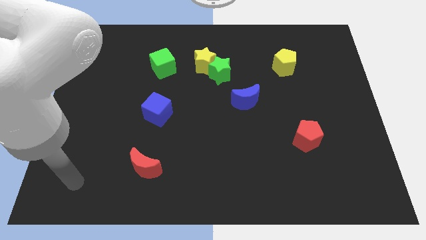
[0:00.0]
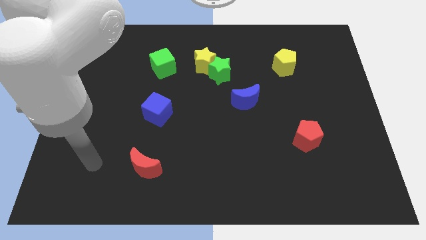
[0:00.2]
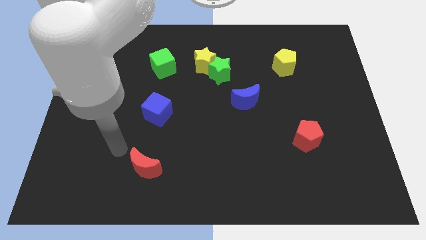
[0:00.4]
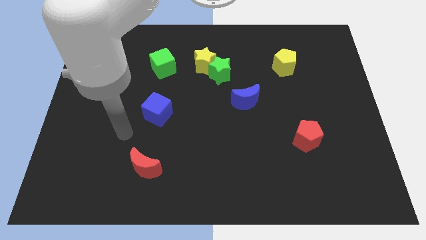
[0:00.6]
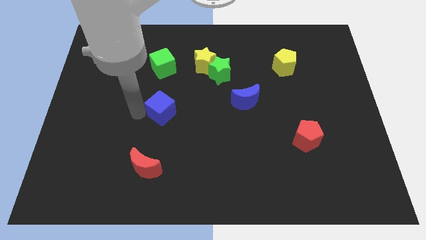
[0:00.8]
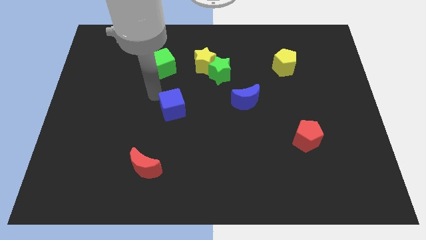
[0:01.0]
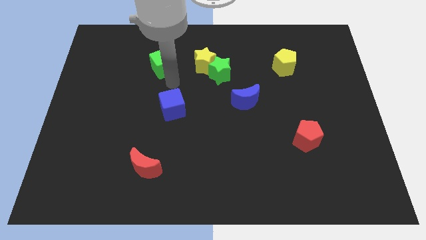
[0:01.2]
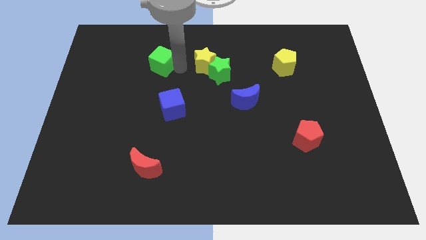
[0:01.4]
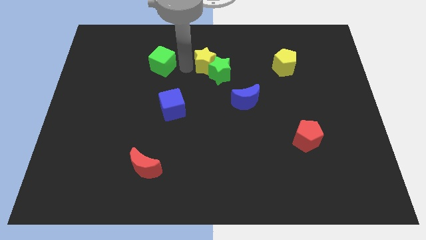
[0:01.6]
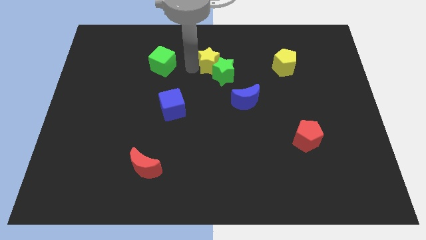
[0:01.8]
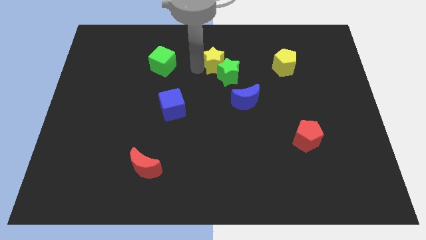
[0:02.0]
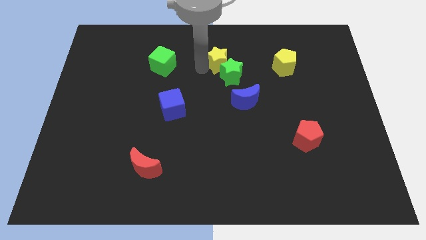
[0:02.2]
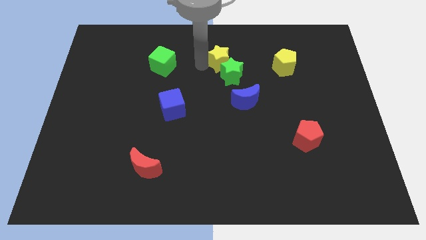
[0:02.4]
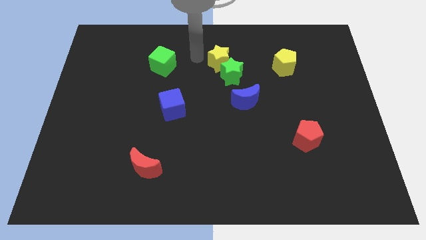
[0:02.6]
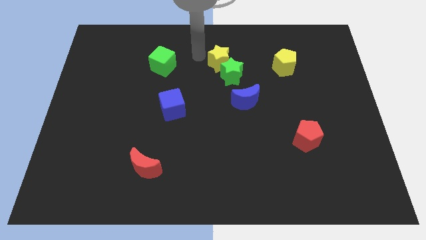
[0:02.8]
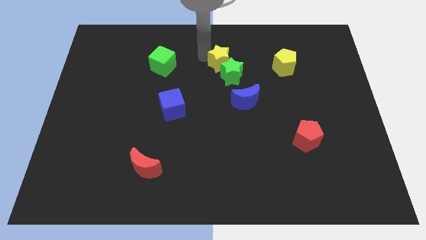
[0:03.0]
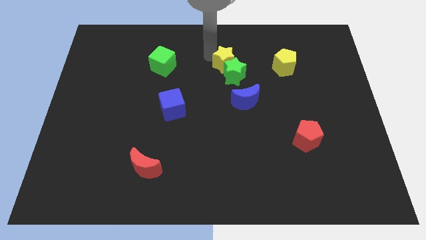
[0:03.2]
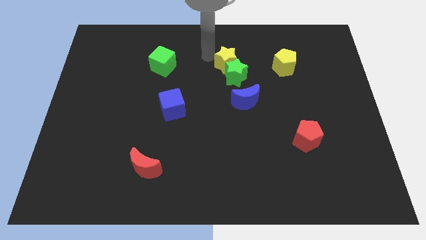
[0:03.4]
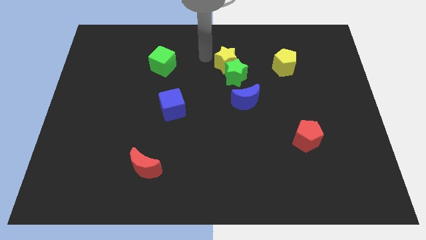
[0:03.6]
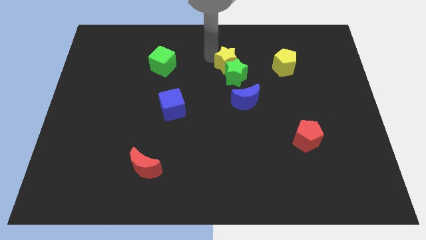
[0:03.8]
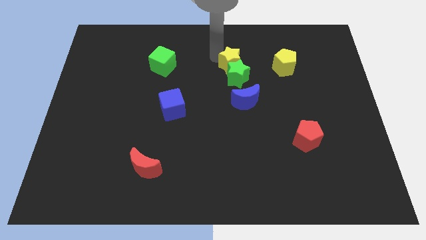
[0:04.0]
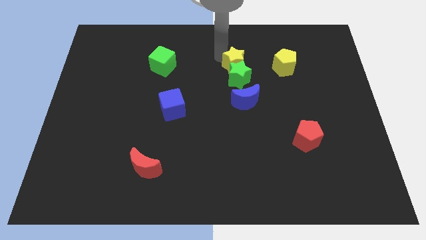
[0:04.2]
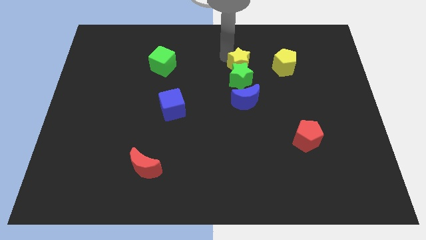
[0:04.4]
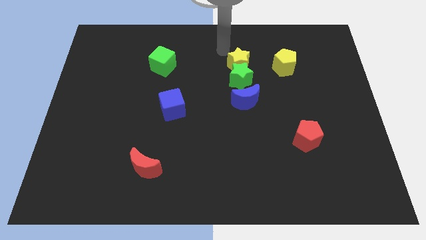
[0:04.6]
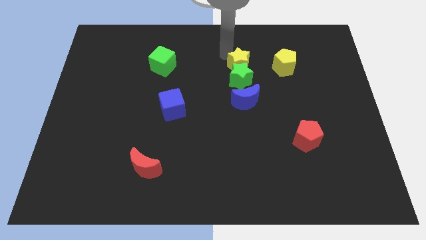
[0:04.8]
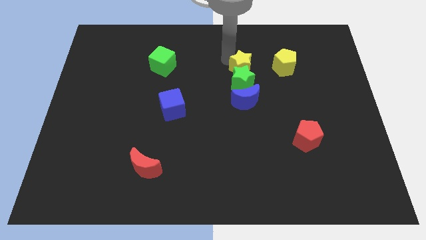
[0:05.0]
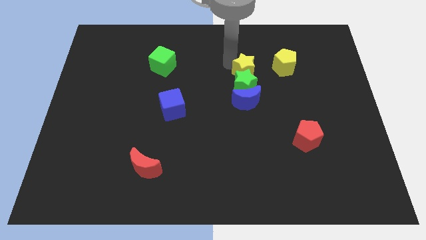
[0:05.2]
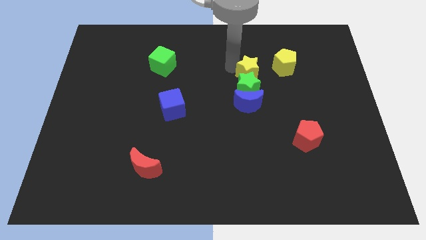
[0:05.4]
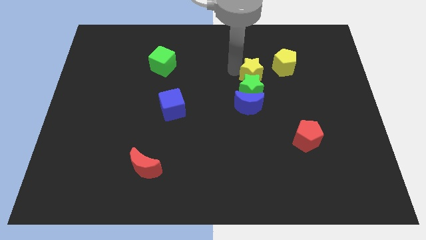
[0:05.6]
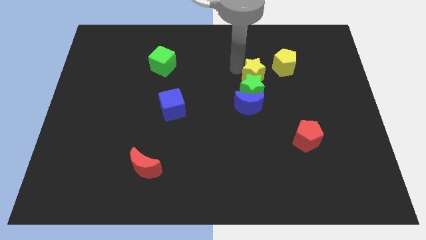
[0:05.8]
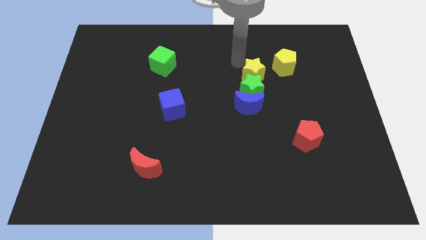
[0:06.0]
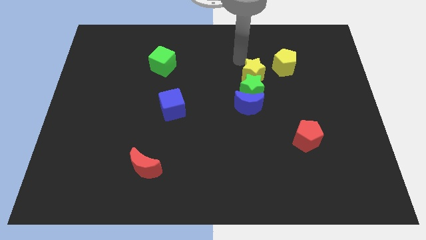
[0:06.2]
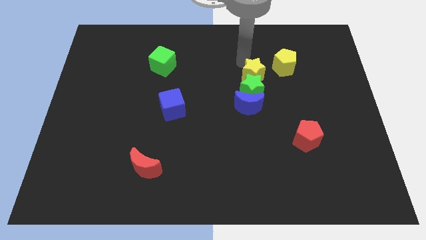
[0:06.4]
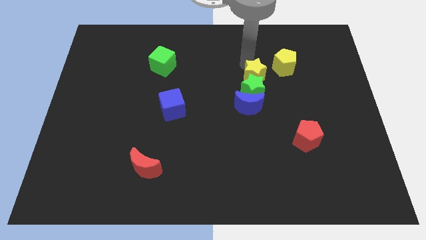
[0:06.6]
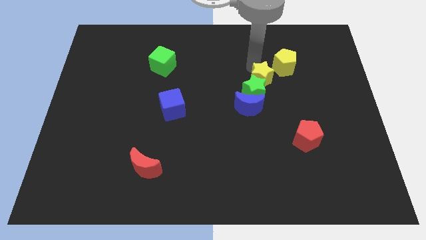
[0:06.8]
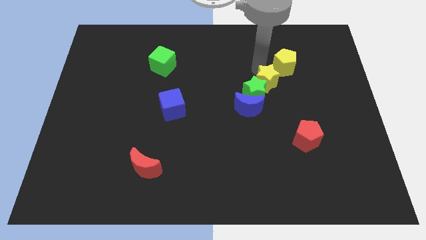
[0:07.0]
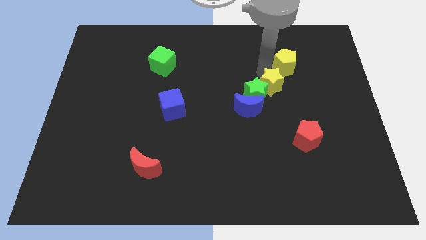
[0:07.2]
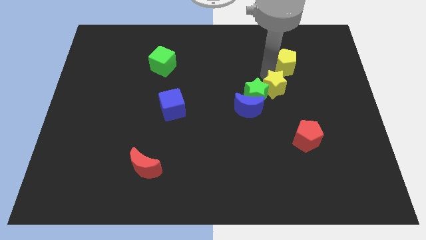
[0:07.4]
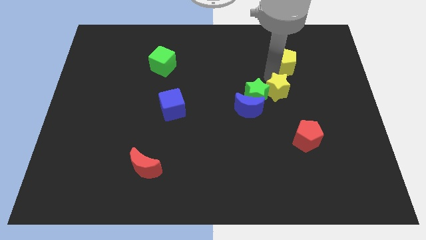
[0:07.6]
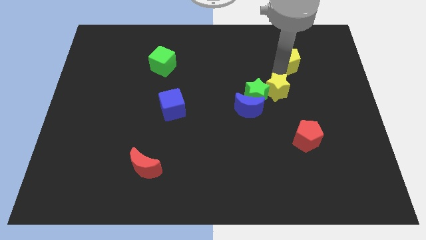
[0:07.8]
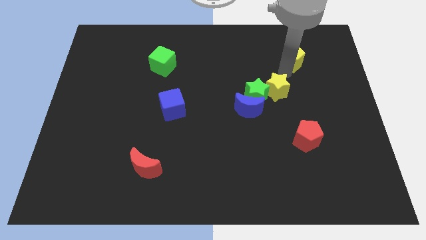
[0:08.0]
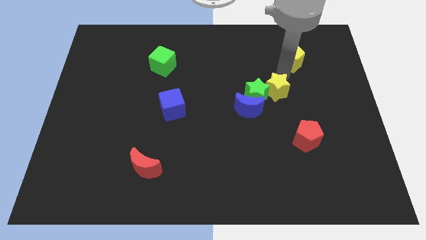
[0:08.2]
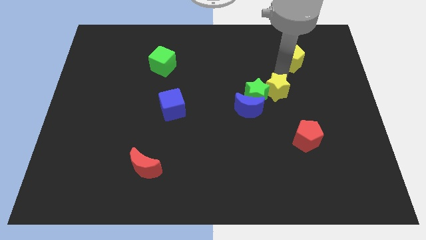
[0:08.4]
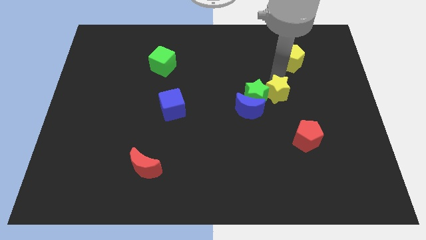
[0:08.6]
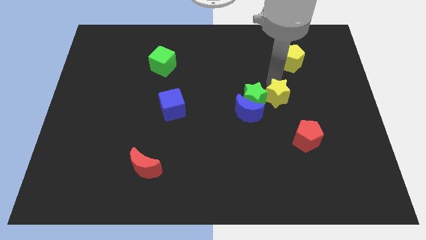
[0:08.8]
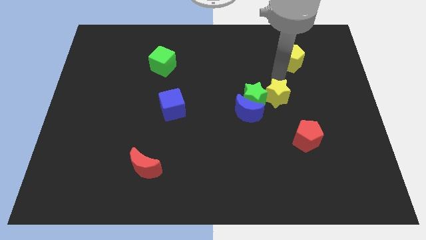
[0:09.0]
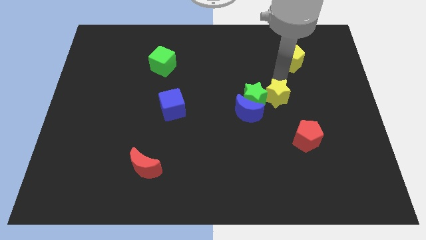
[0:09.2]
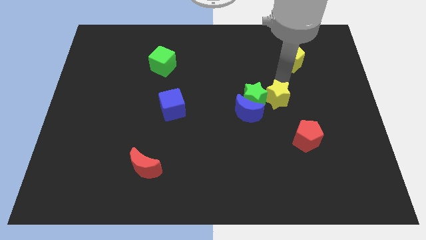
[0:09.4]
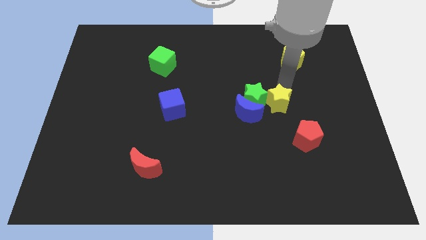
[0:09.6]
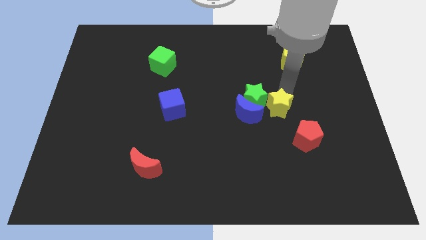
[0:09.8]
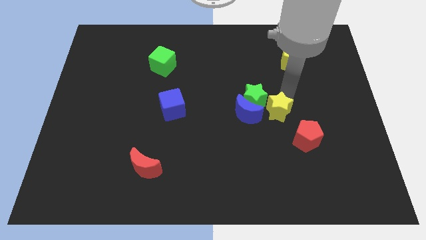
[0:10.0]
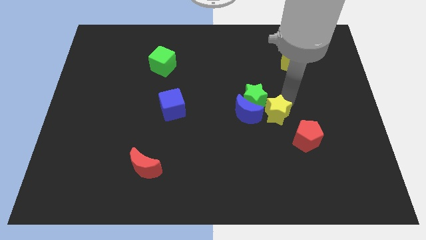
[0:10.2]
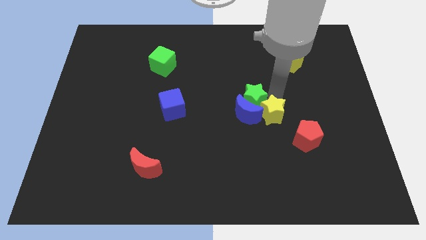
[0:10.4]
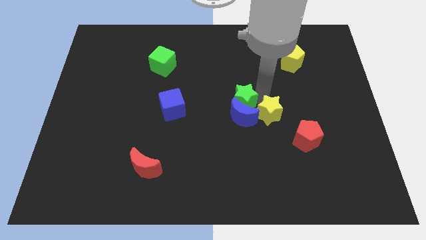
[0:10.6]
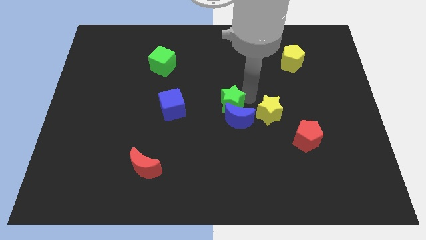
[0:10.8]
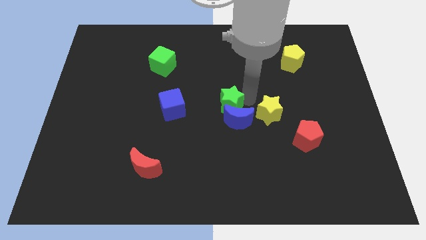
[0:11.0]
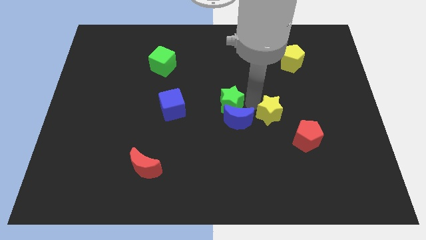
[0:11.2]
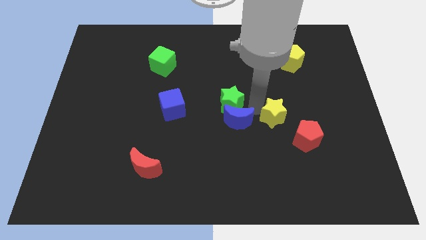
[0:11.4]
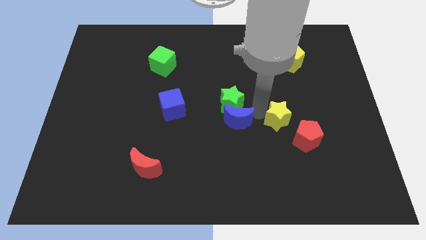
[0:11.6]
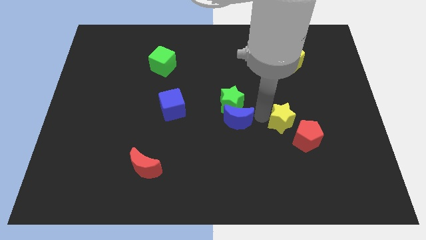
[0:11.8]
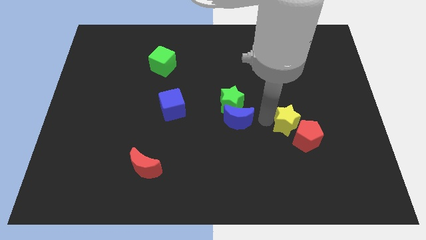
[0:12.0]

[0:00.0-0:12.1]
slide the yellow star to the red pentagon

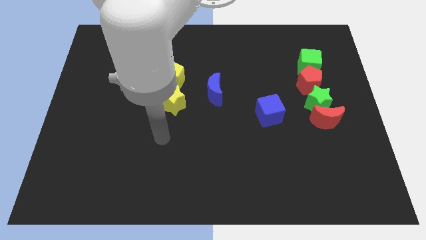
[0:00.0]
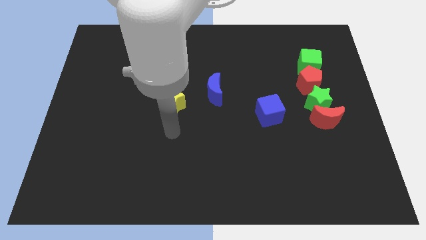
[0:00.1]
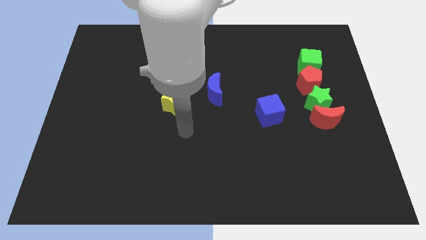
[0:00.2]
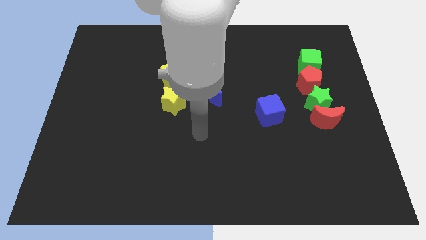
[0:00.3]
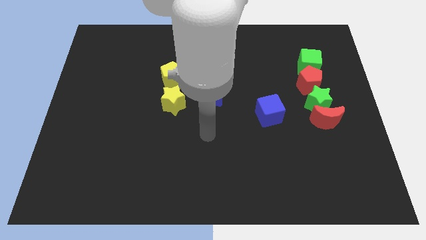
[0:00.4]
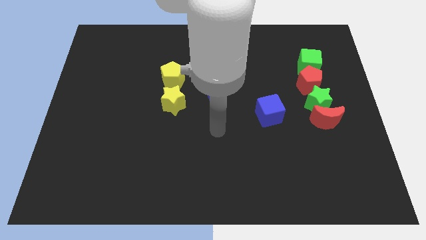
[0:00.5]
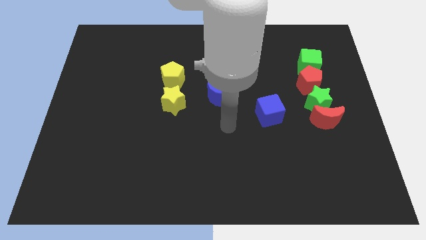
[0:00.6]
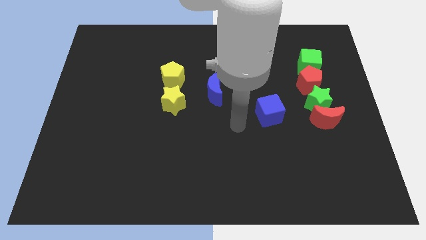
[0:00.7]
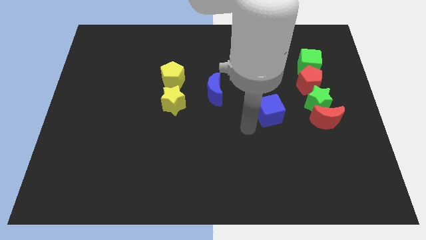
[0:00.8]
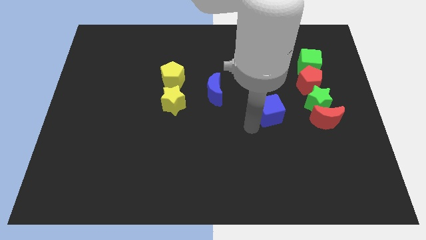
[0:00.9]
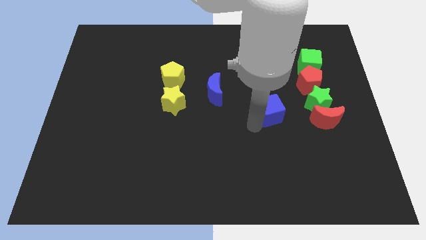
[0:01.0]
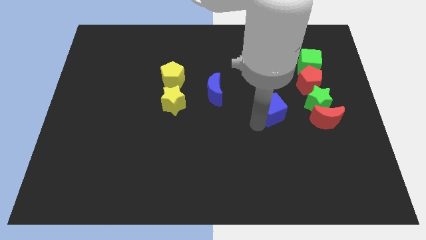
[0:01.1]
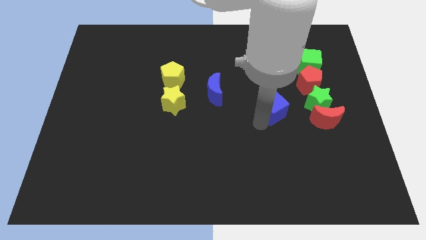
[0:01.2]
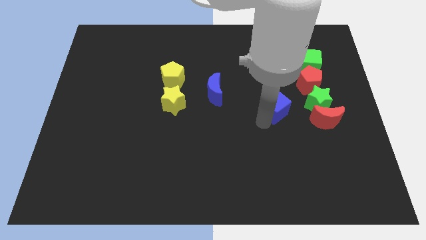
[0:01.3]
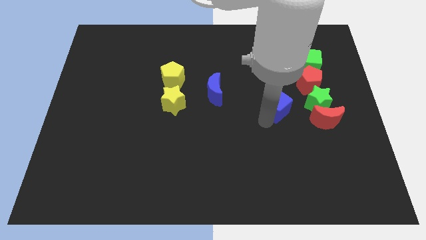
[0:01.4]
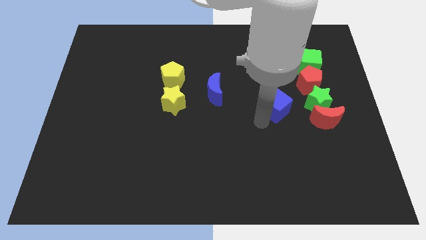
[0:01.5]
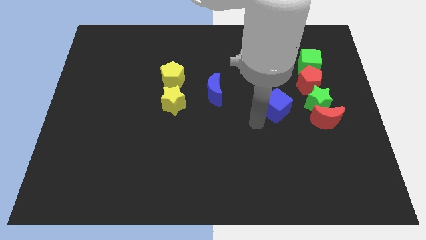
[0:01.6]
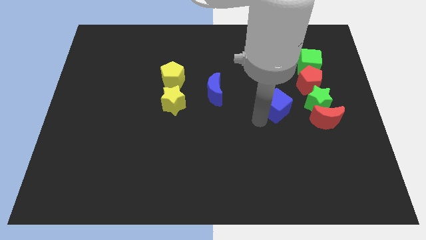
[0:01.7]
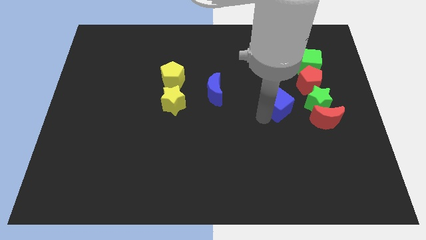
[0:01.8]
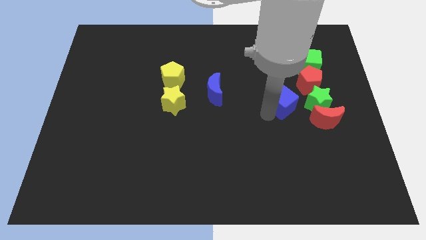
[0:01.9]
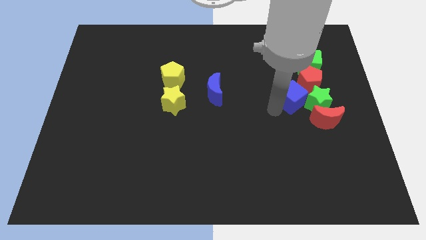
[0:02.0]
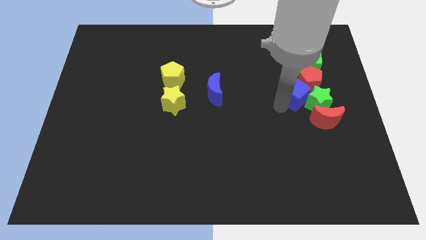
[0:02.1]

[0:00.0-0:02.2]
slide the blue cube next to the red pentagon
